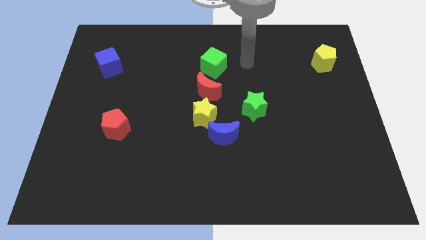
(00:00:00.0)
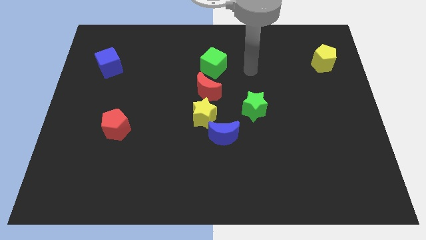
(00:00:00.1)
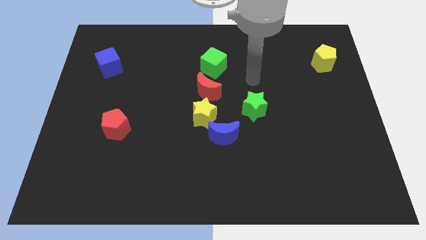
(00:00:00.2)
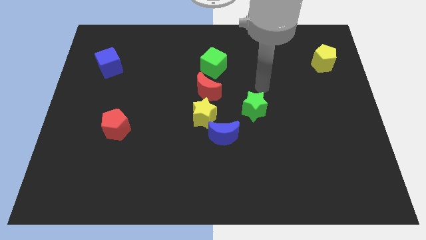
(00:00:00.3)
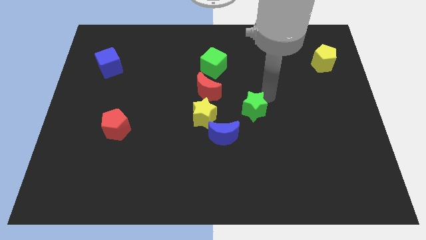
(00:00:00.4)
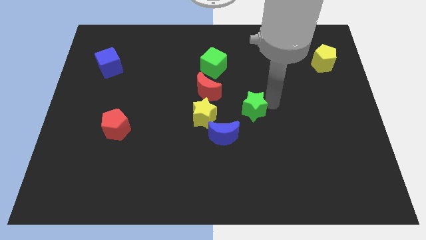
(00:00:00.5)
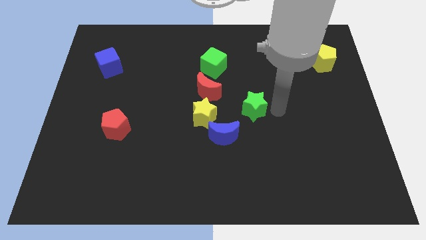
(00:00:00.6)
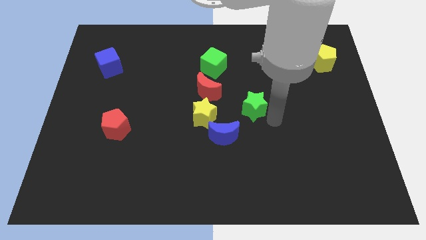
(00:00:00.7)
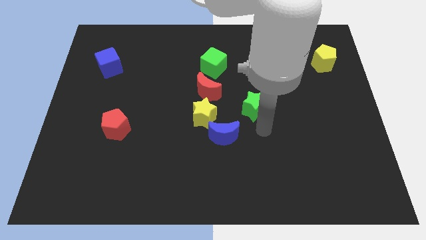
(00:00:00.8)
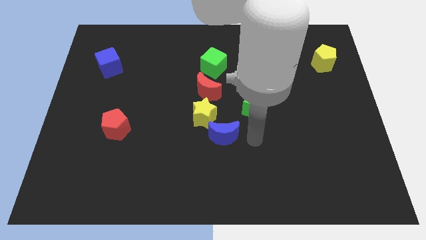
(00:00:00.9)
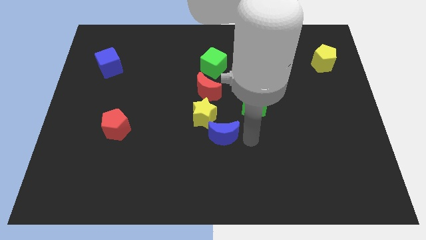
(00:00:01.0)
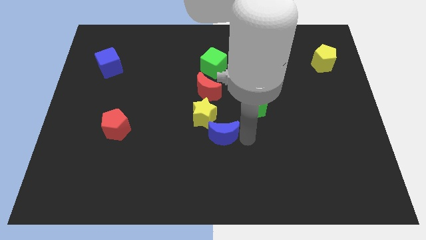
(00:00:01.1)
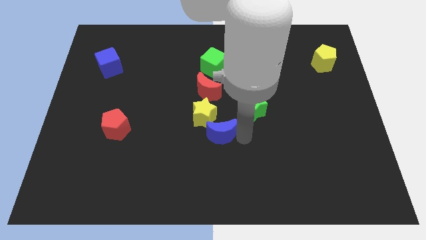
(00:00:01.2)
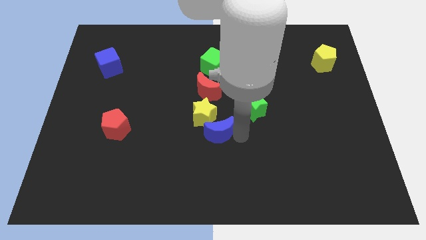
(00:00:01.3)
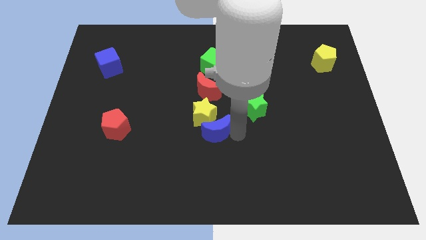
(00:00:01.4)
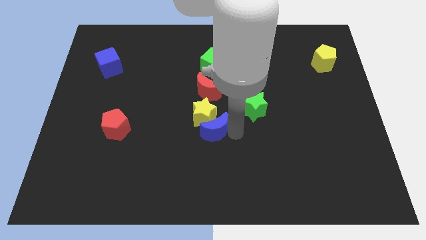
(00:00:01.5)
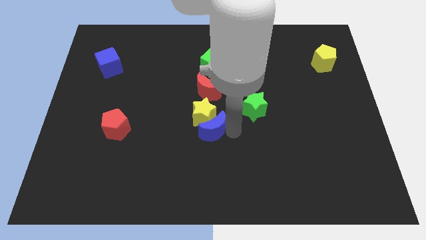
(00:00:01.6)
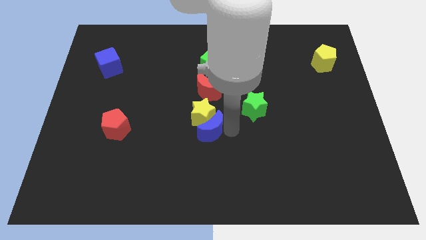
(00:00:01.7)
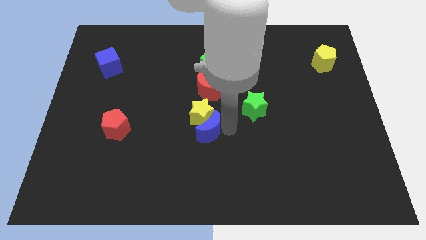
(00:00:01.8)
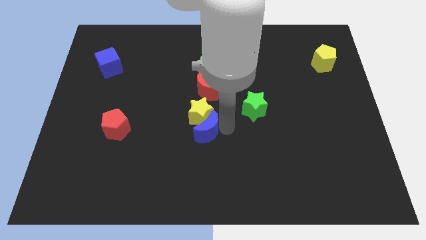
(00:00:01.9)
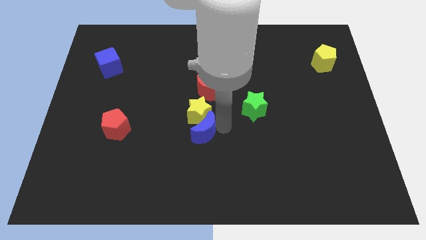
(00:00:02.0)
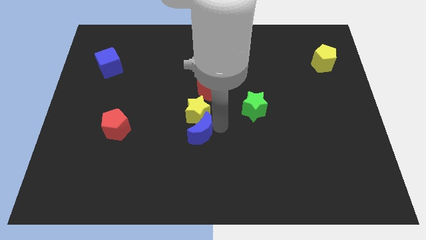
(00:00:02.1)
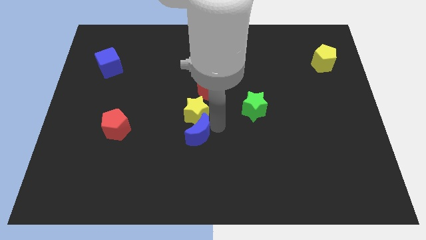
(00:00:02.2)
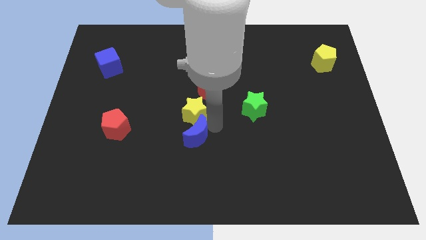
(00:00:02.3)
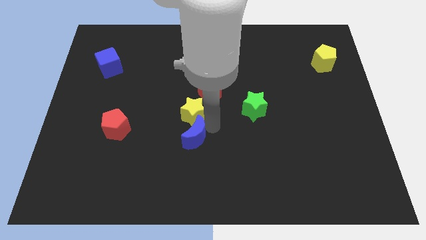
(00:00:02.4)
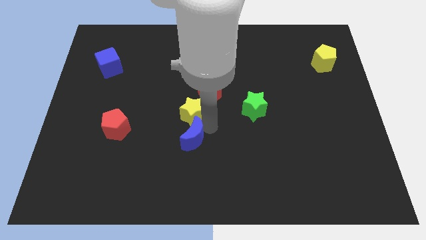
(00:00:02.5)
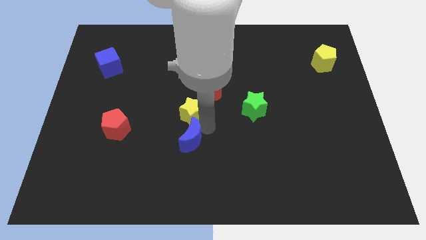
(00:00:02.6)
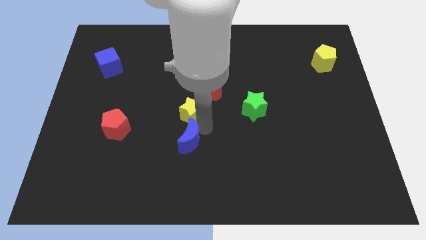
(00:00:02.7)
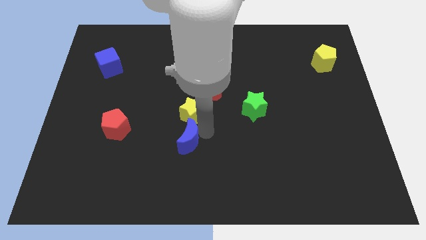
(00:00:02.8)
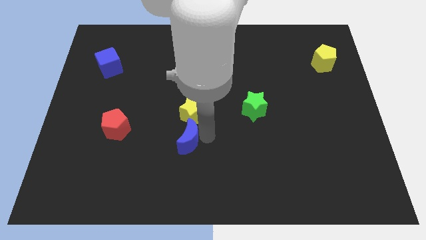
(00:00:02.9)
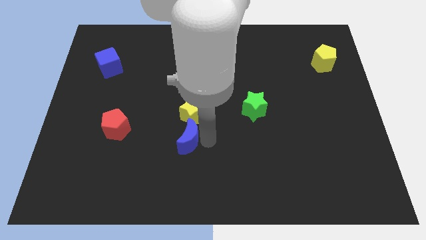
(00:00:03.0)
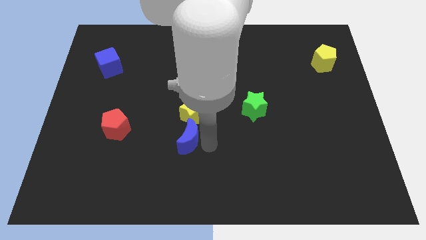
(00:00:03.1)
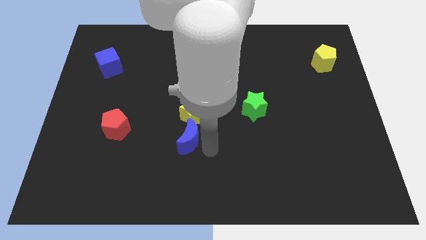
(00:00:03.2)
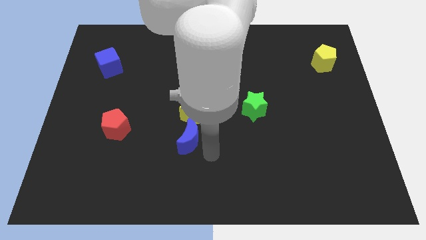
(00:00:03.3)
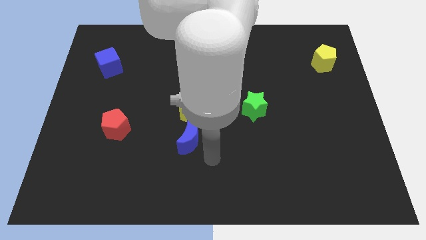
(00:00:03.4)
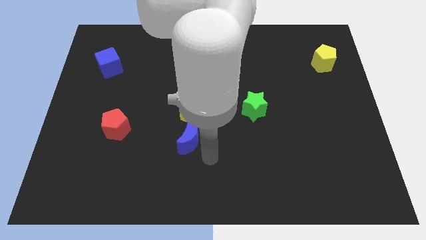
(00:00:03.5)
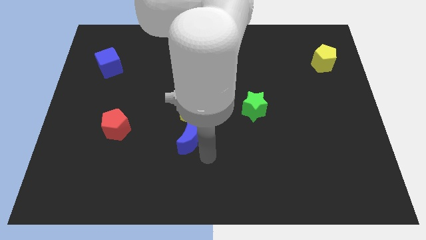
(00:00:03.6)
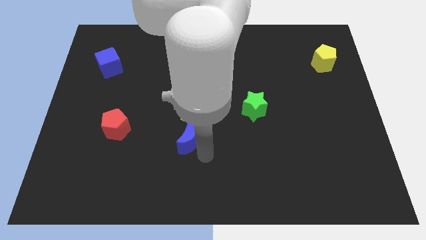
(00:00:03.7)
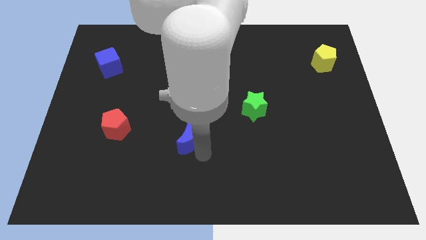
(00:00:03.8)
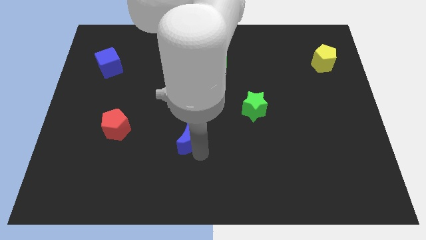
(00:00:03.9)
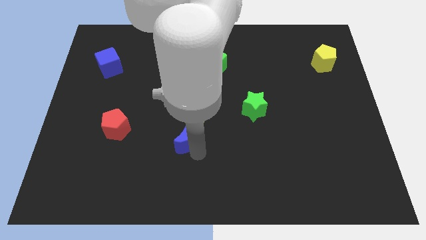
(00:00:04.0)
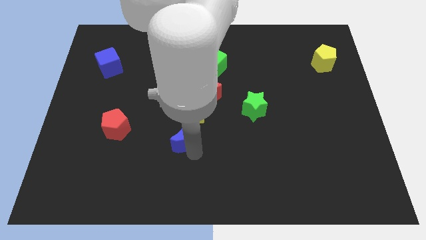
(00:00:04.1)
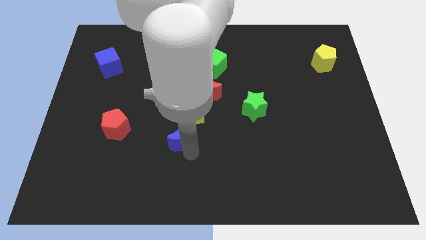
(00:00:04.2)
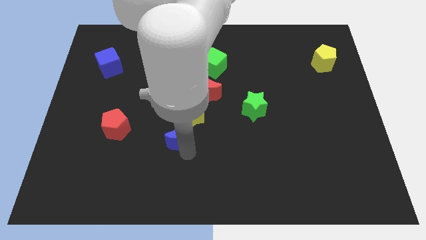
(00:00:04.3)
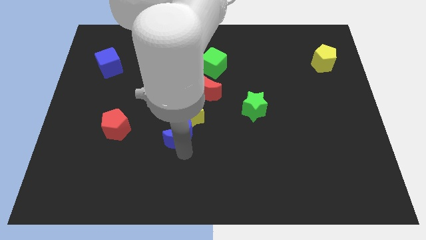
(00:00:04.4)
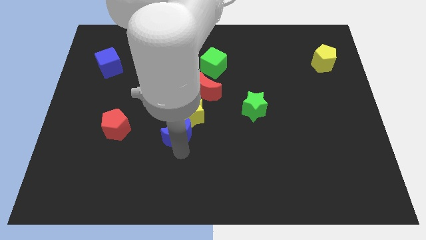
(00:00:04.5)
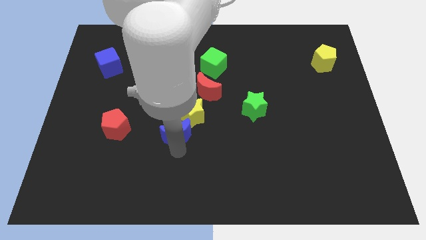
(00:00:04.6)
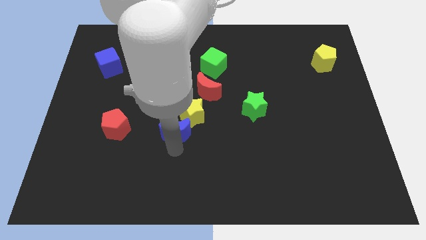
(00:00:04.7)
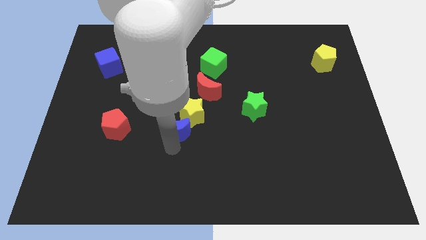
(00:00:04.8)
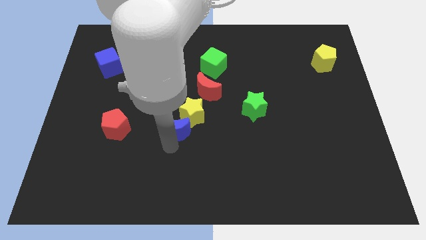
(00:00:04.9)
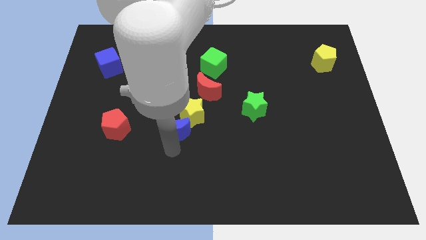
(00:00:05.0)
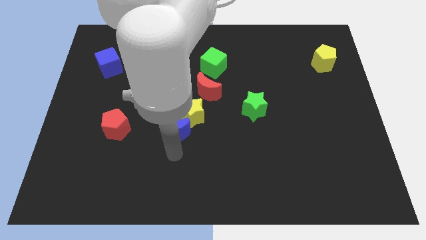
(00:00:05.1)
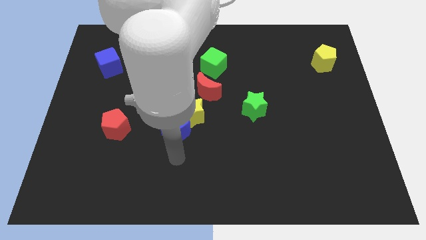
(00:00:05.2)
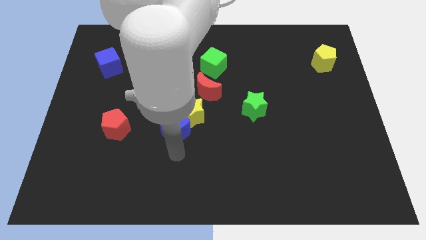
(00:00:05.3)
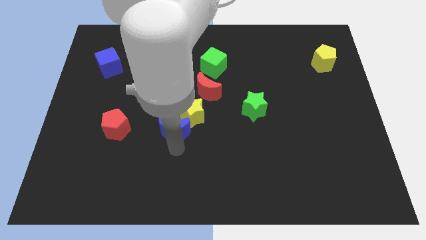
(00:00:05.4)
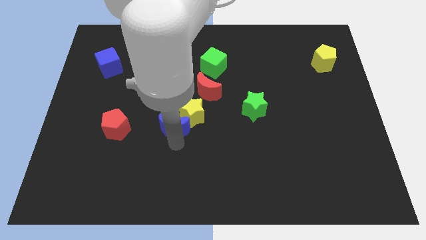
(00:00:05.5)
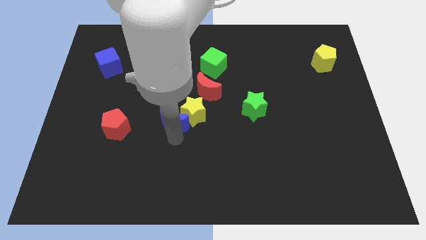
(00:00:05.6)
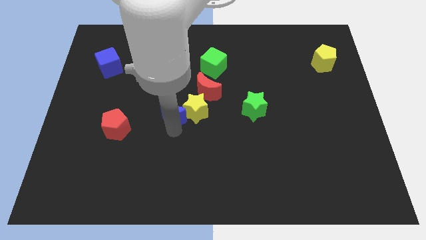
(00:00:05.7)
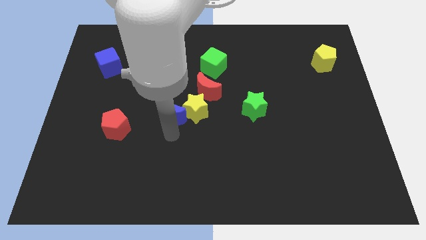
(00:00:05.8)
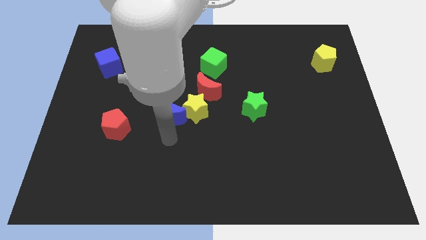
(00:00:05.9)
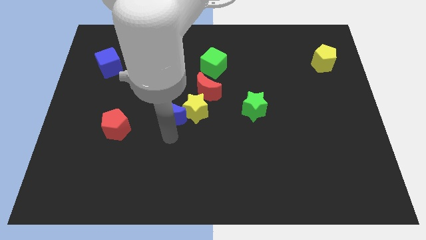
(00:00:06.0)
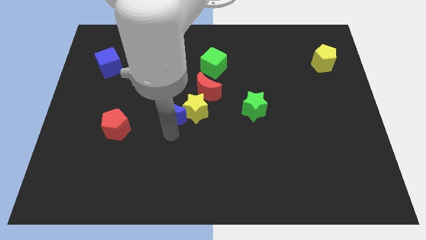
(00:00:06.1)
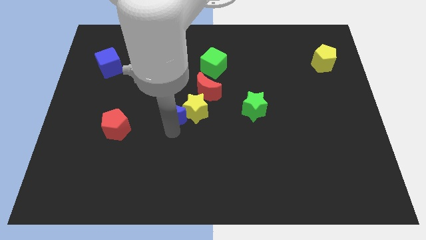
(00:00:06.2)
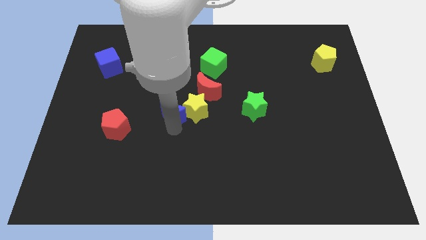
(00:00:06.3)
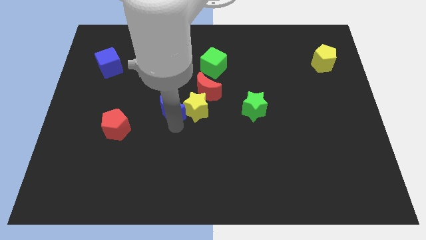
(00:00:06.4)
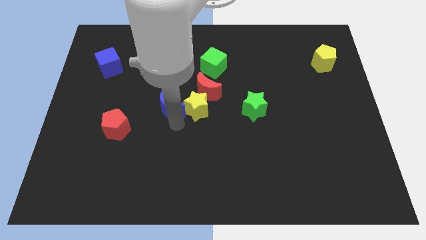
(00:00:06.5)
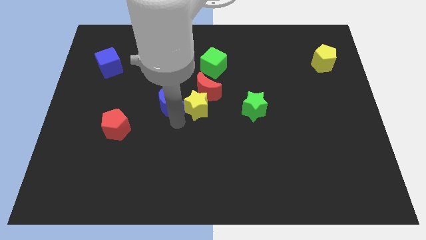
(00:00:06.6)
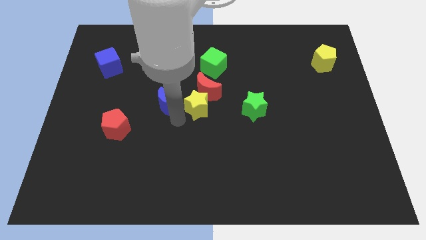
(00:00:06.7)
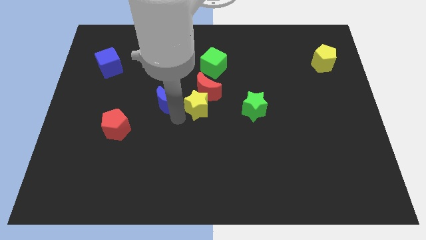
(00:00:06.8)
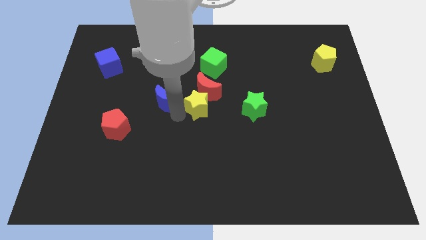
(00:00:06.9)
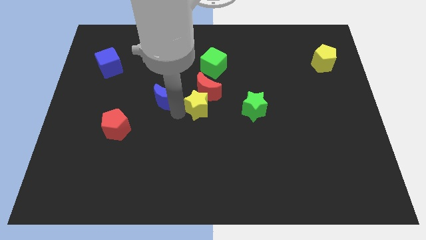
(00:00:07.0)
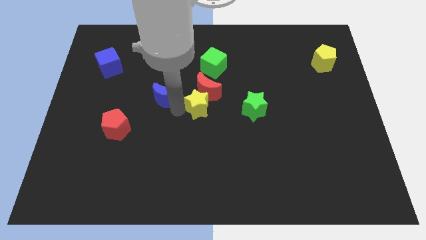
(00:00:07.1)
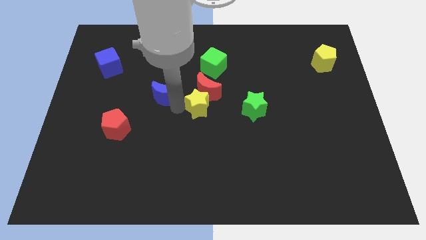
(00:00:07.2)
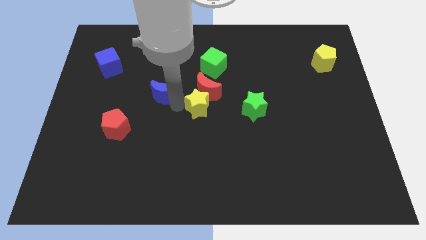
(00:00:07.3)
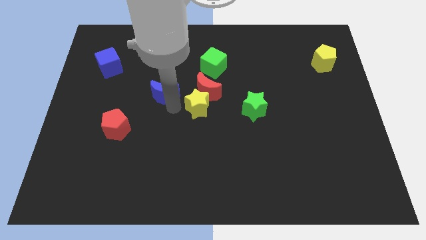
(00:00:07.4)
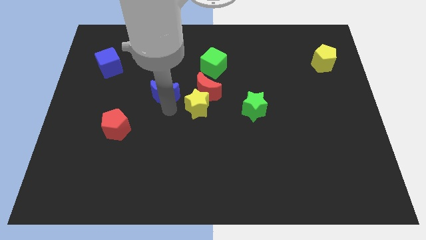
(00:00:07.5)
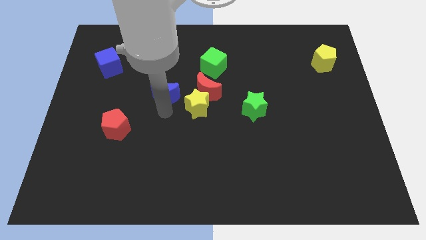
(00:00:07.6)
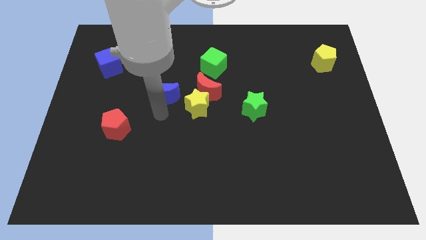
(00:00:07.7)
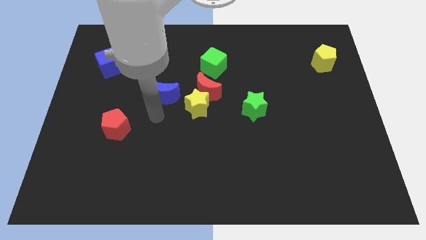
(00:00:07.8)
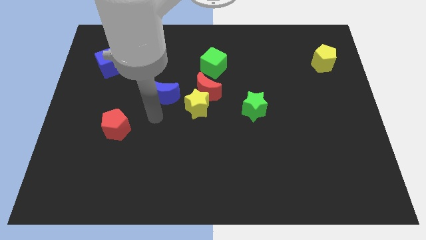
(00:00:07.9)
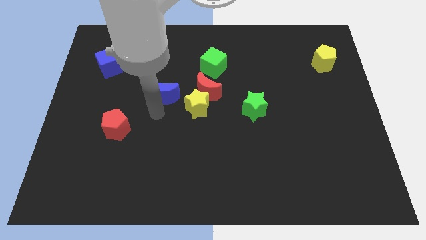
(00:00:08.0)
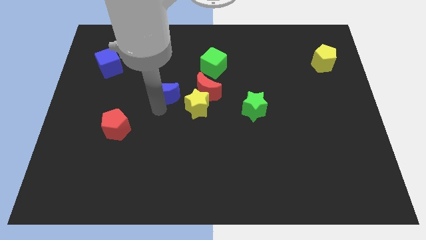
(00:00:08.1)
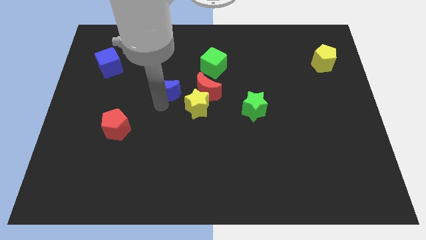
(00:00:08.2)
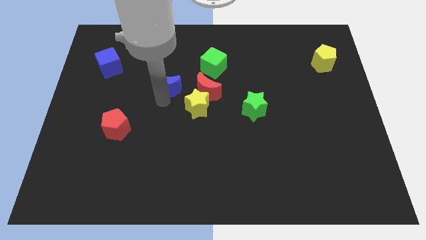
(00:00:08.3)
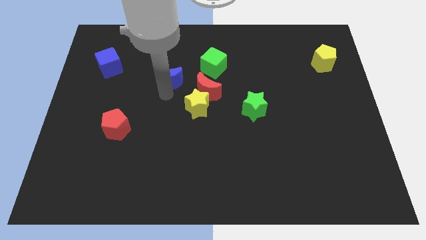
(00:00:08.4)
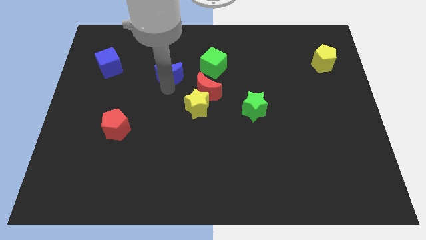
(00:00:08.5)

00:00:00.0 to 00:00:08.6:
push the blue moon to the left side of the green cube
